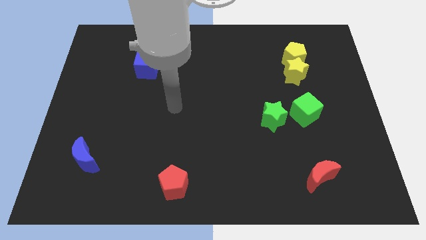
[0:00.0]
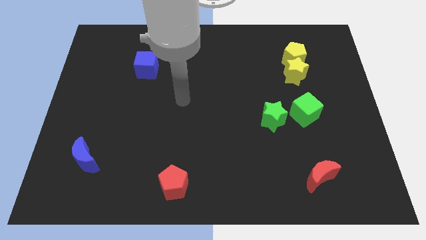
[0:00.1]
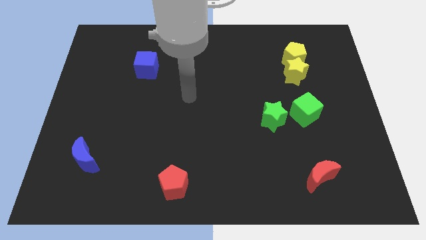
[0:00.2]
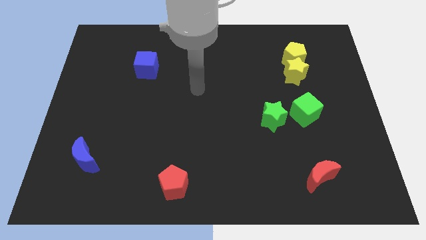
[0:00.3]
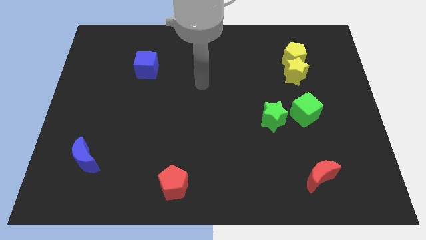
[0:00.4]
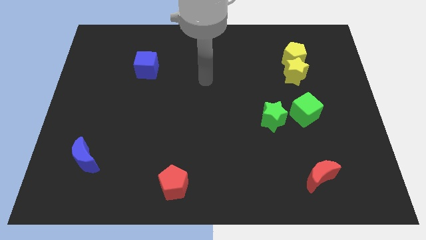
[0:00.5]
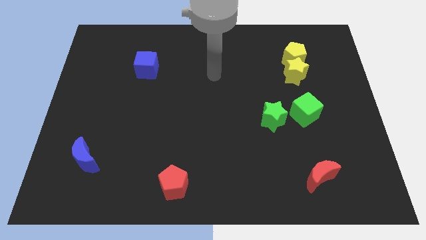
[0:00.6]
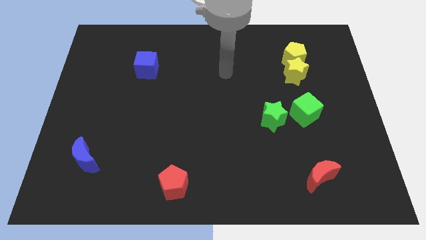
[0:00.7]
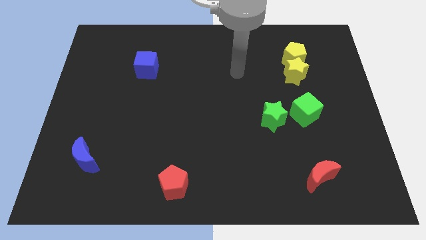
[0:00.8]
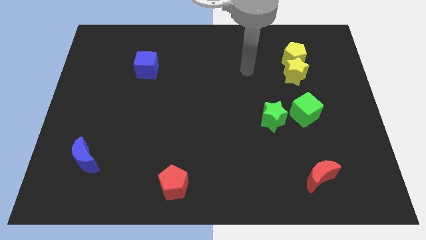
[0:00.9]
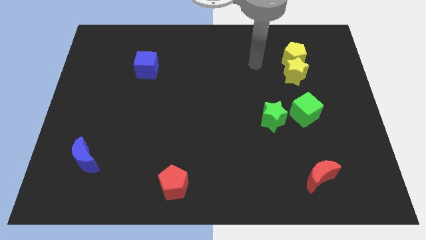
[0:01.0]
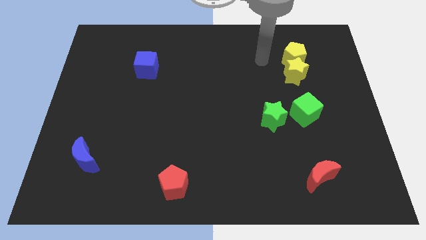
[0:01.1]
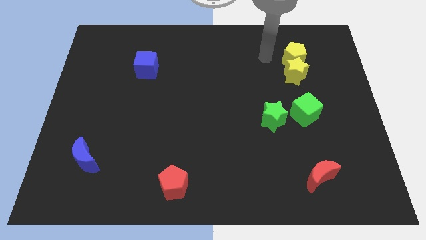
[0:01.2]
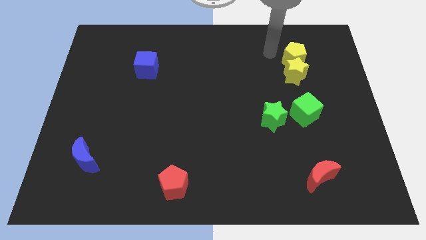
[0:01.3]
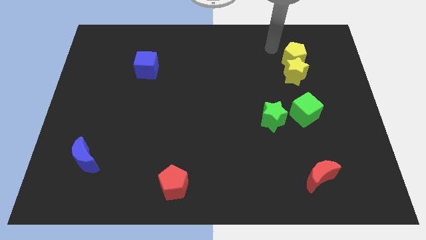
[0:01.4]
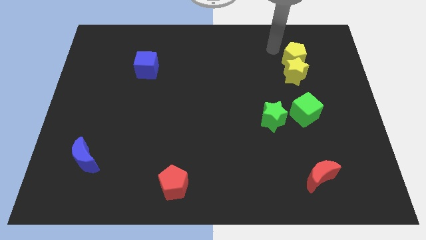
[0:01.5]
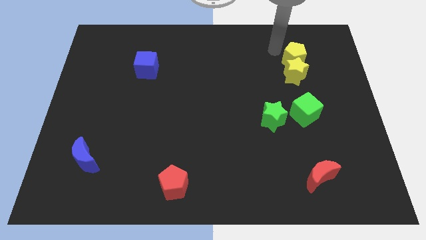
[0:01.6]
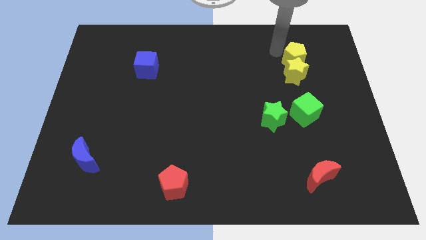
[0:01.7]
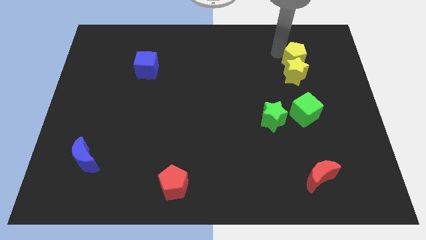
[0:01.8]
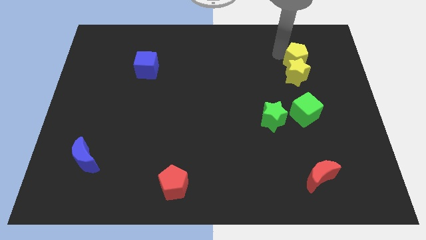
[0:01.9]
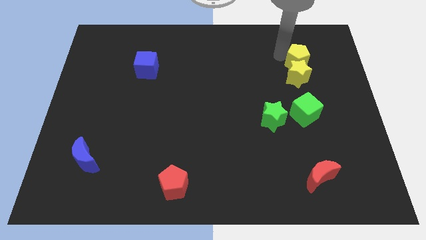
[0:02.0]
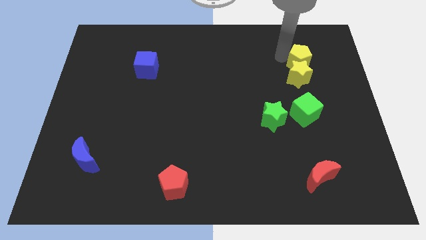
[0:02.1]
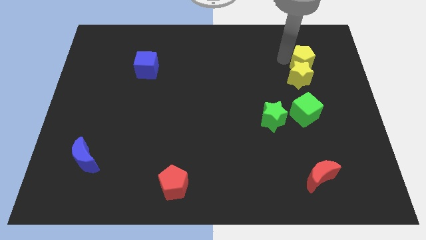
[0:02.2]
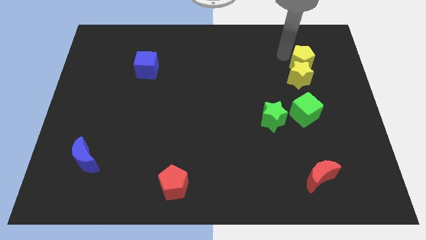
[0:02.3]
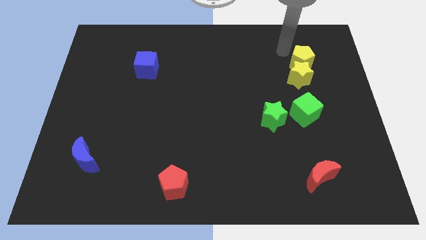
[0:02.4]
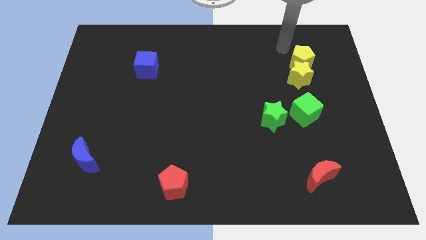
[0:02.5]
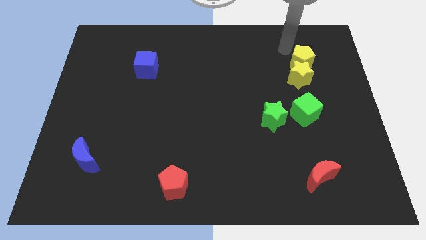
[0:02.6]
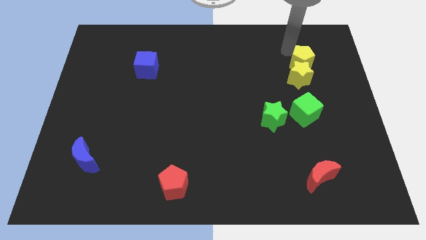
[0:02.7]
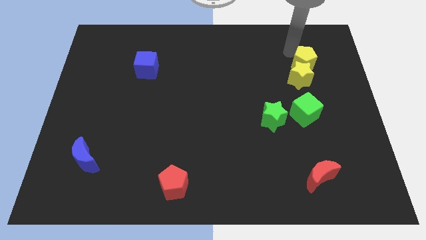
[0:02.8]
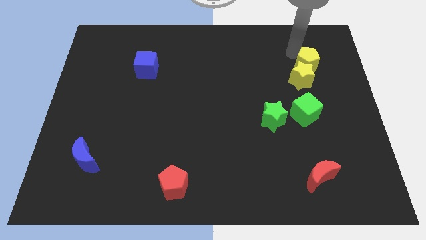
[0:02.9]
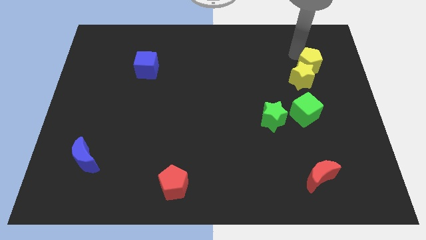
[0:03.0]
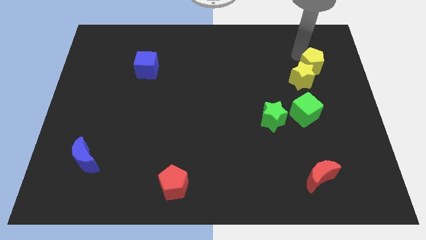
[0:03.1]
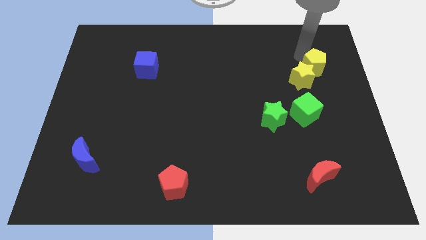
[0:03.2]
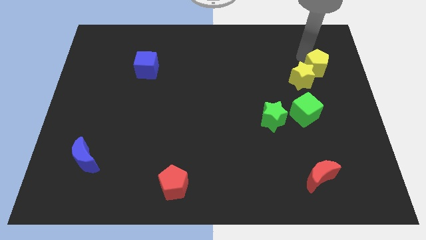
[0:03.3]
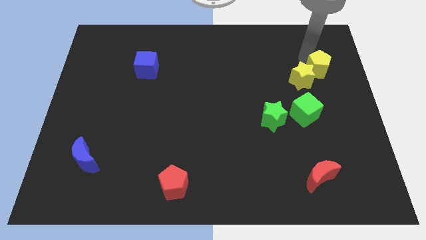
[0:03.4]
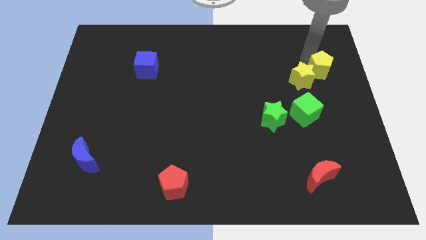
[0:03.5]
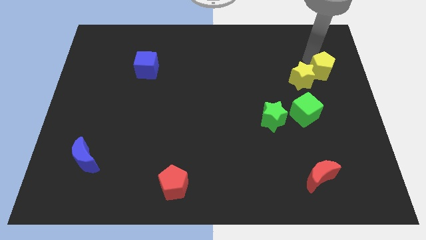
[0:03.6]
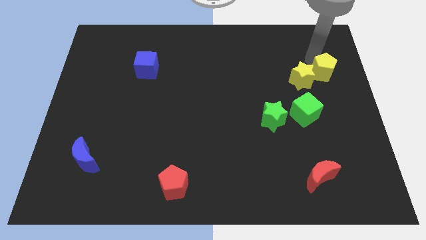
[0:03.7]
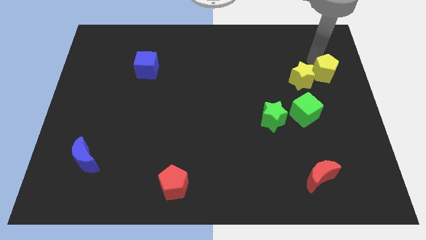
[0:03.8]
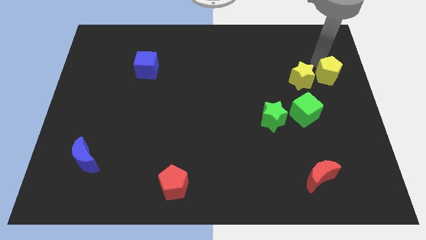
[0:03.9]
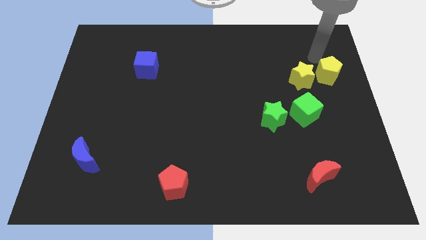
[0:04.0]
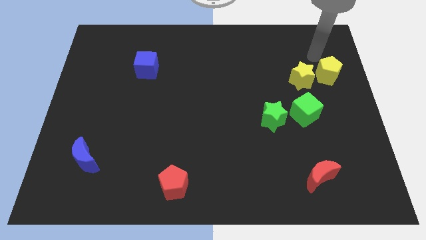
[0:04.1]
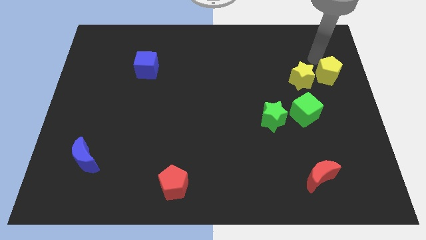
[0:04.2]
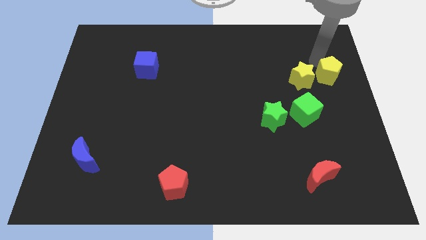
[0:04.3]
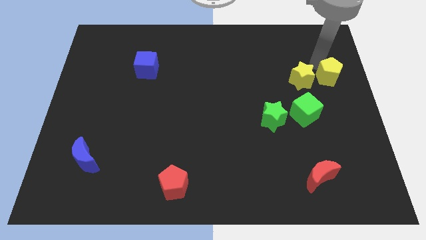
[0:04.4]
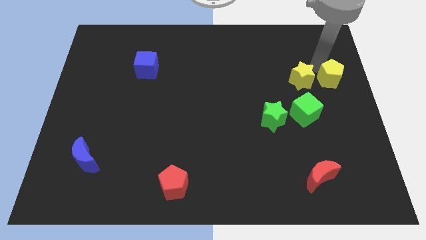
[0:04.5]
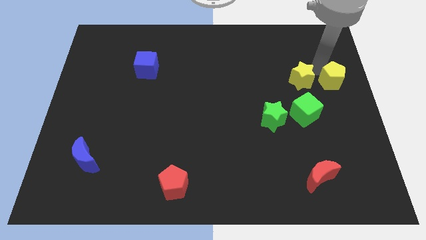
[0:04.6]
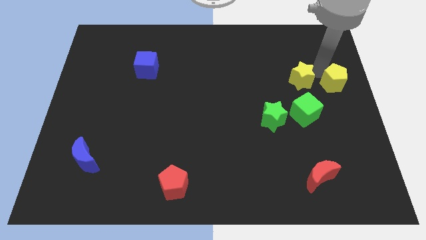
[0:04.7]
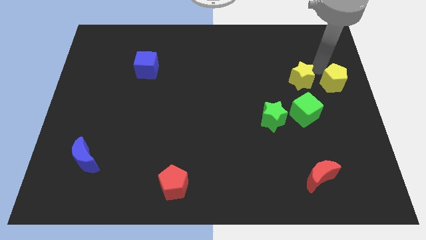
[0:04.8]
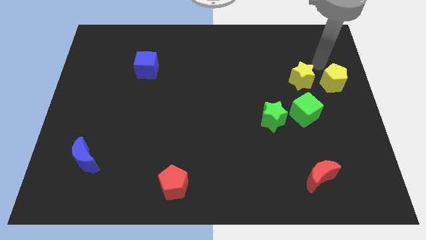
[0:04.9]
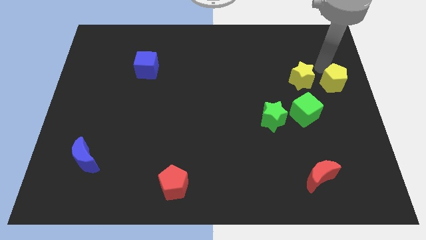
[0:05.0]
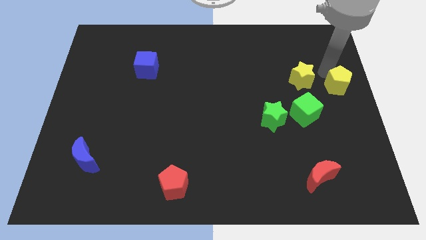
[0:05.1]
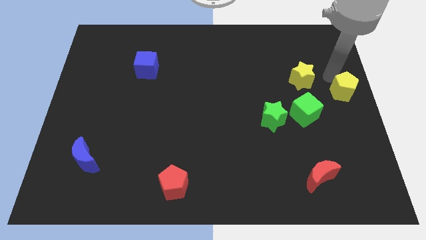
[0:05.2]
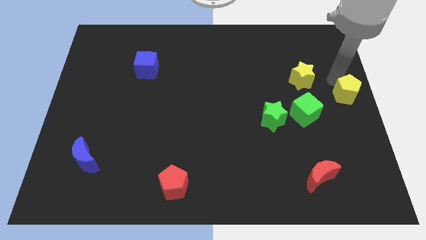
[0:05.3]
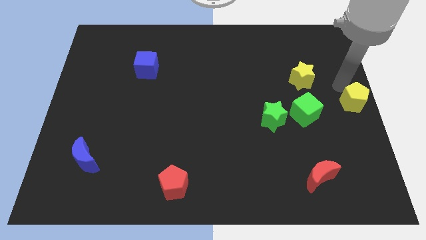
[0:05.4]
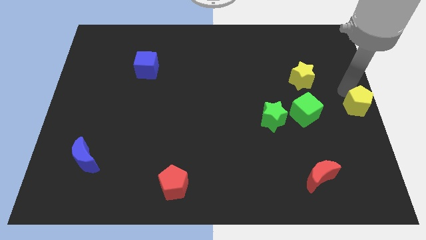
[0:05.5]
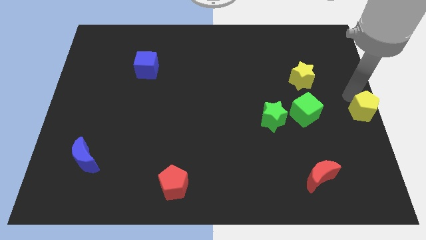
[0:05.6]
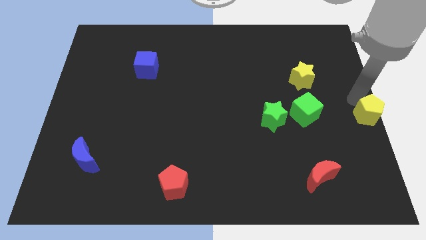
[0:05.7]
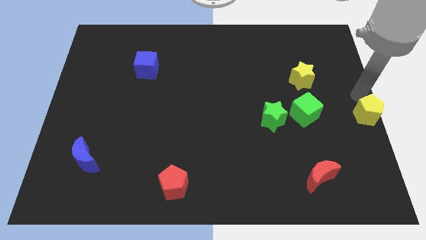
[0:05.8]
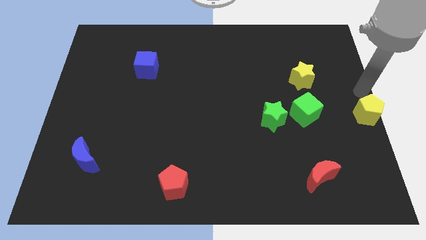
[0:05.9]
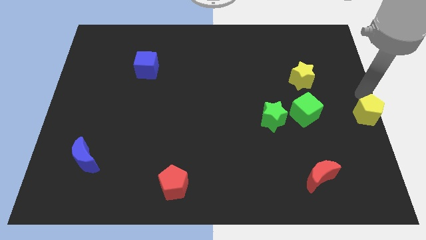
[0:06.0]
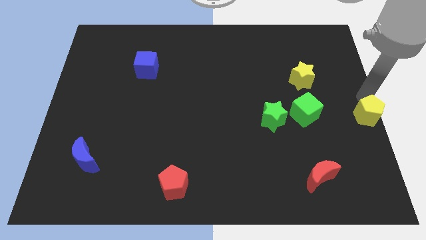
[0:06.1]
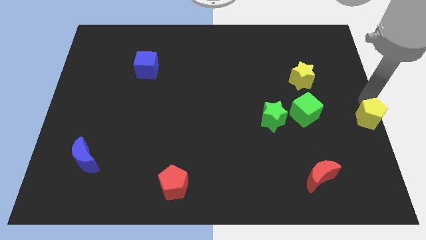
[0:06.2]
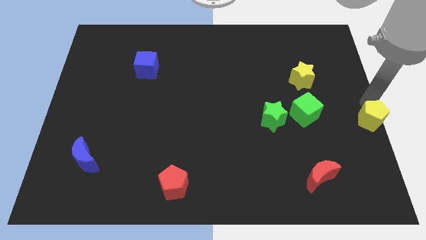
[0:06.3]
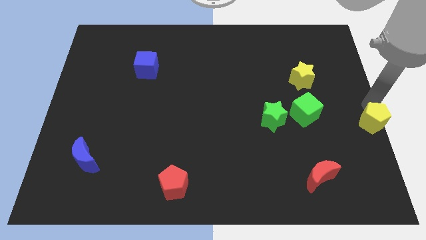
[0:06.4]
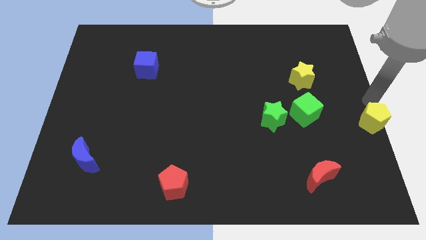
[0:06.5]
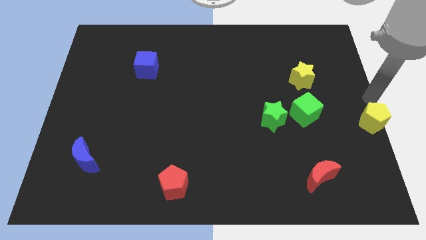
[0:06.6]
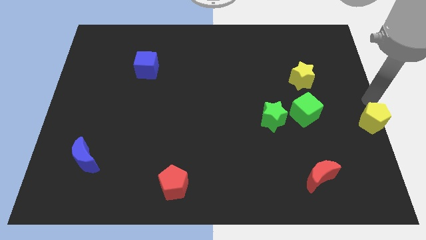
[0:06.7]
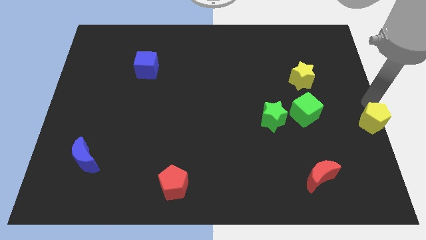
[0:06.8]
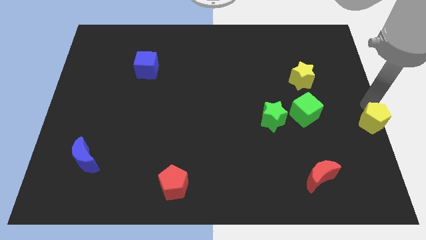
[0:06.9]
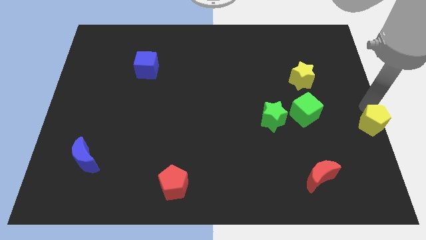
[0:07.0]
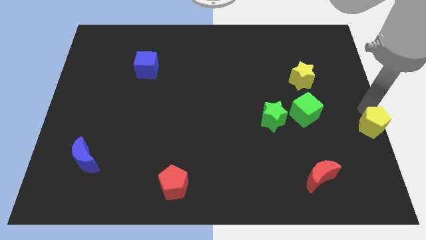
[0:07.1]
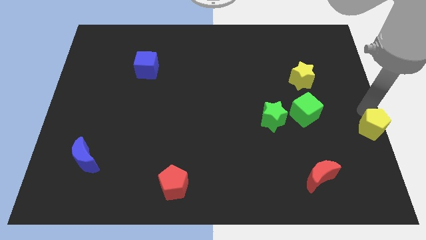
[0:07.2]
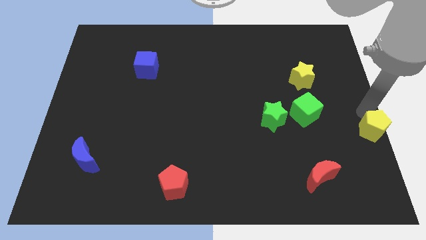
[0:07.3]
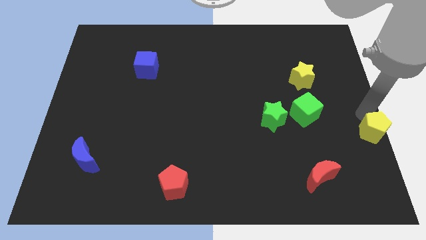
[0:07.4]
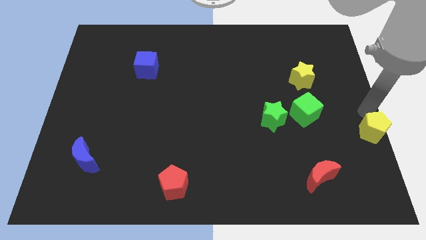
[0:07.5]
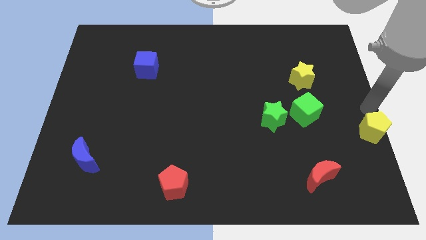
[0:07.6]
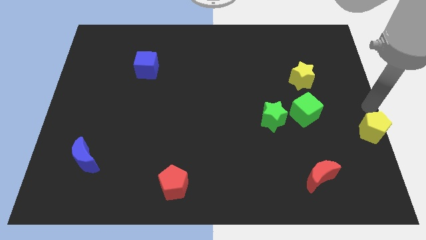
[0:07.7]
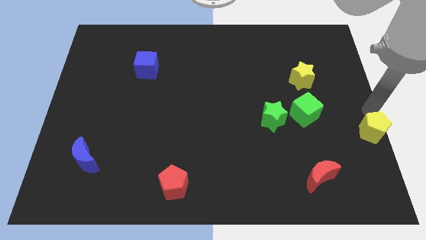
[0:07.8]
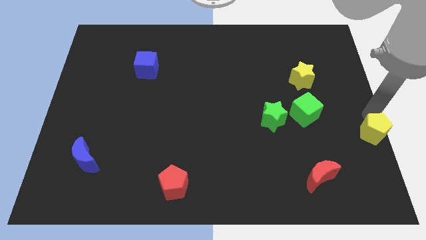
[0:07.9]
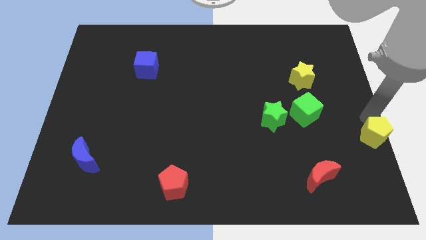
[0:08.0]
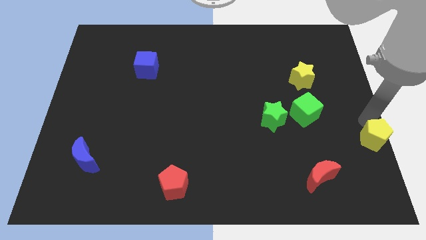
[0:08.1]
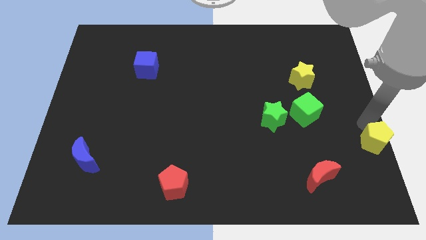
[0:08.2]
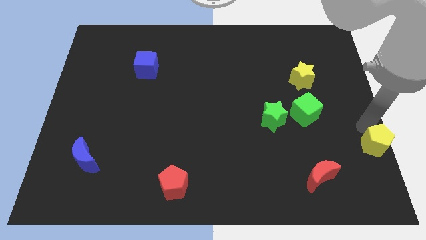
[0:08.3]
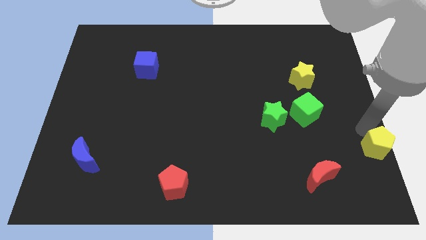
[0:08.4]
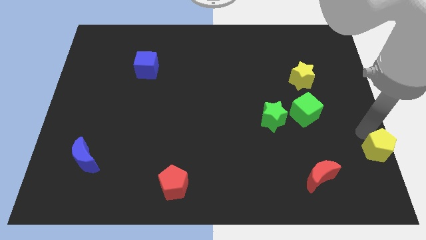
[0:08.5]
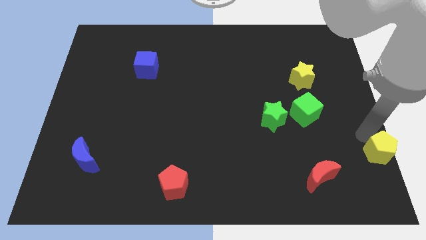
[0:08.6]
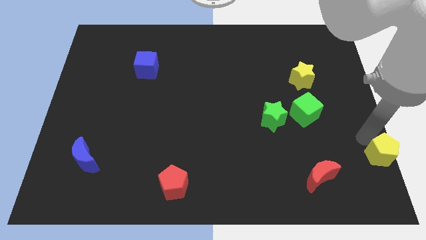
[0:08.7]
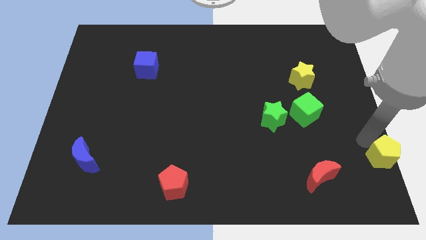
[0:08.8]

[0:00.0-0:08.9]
slide the yellow pentagon to the bottom right of the board
